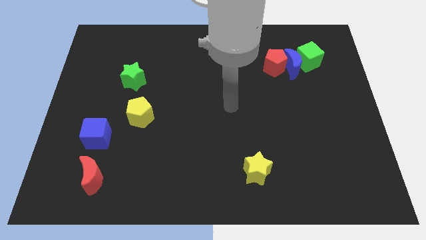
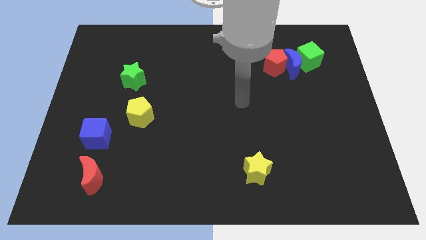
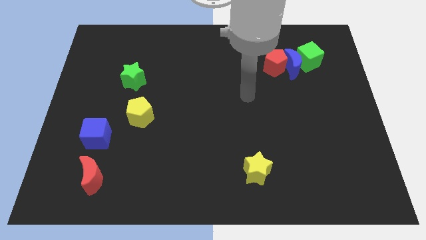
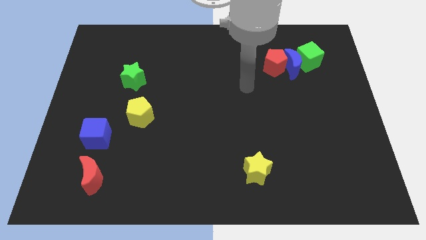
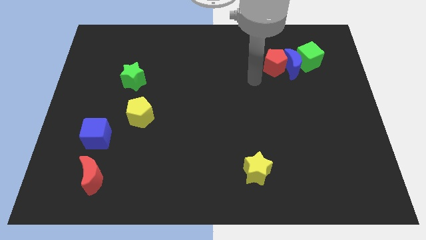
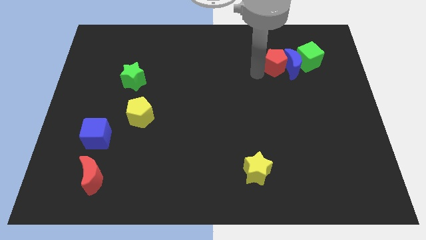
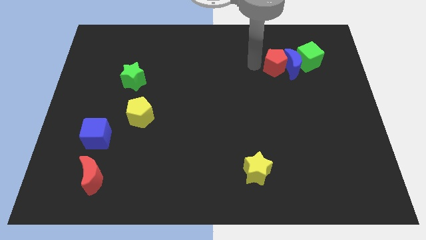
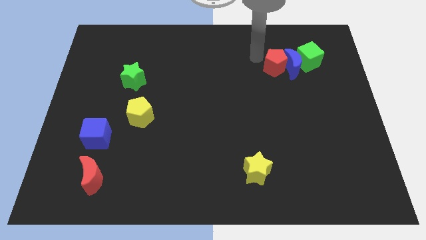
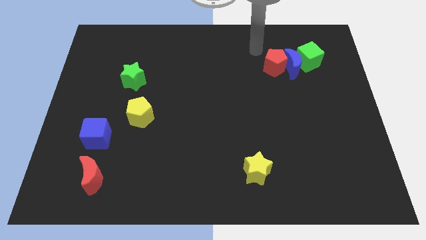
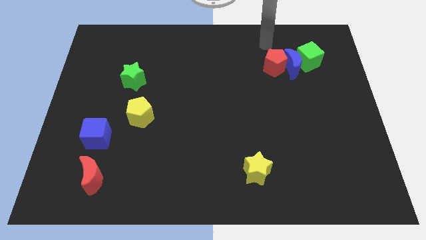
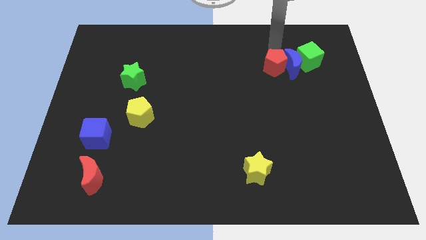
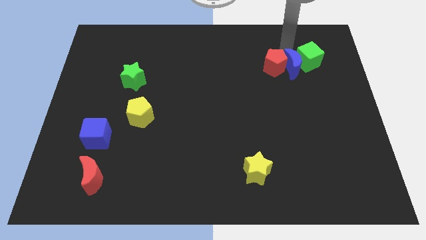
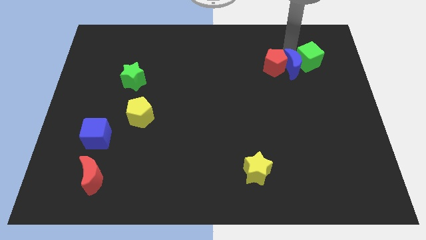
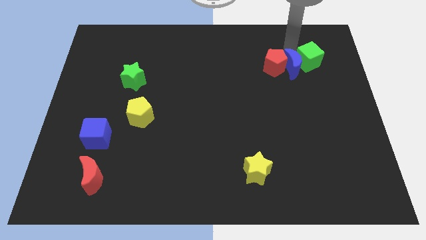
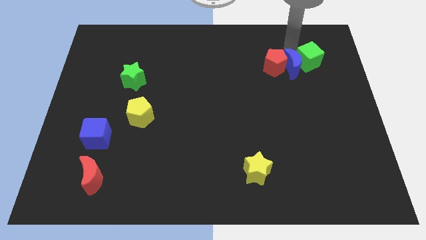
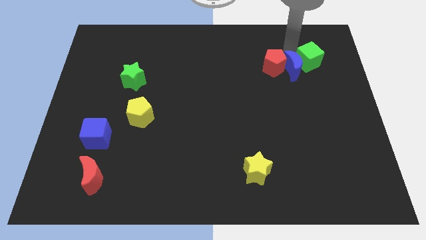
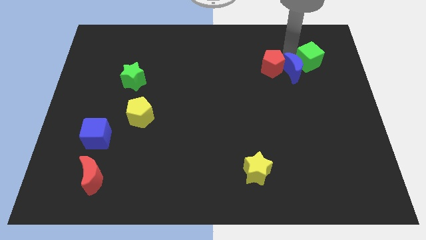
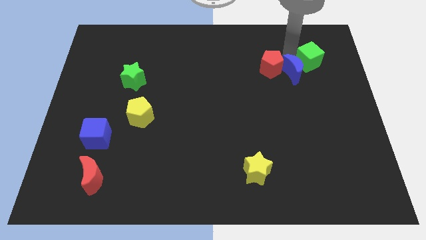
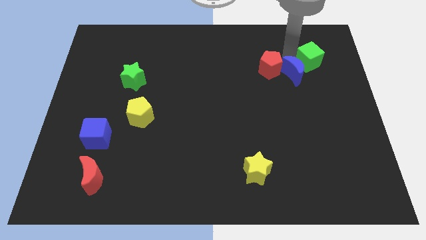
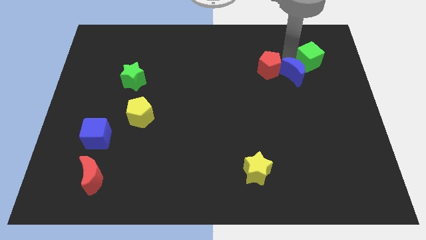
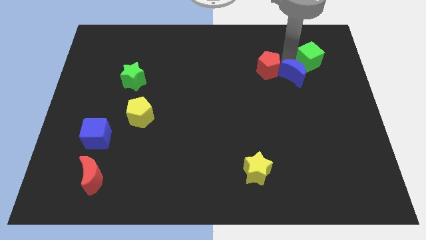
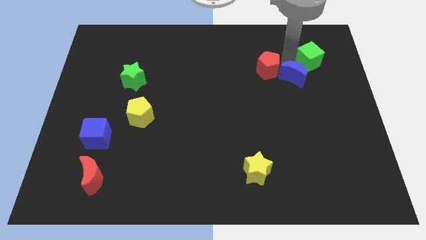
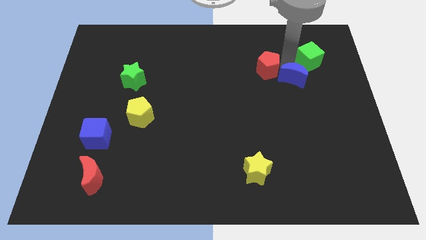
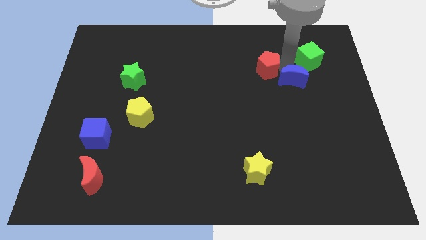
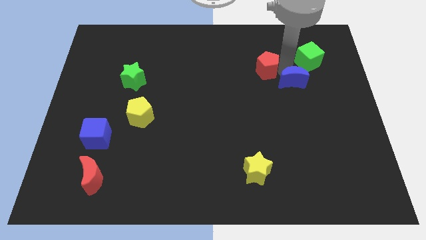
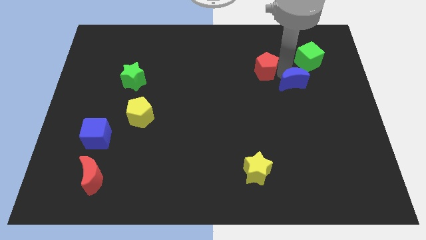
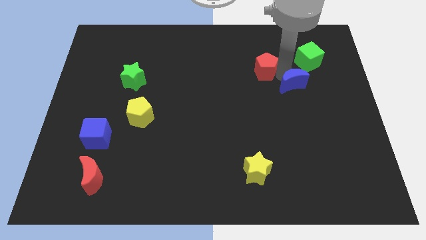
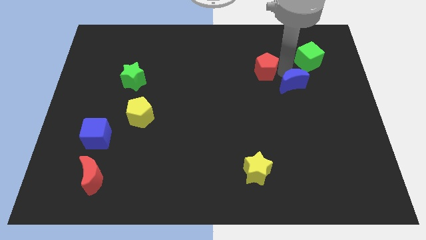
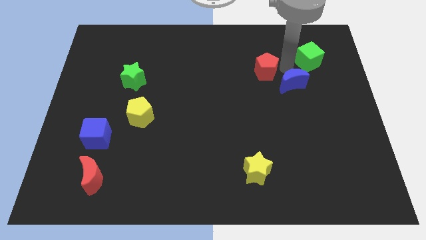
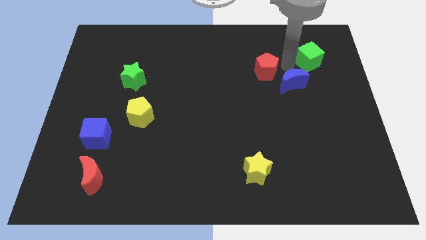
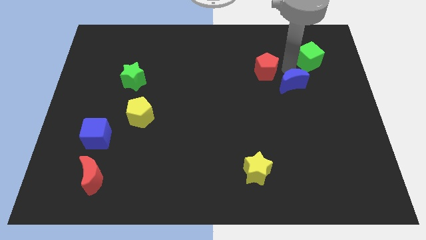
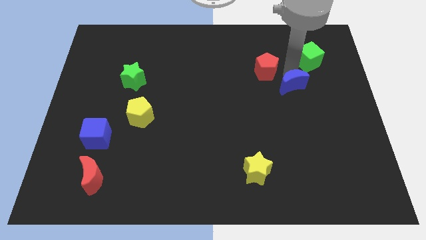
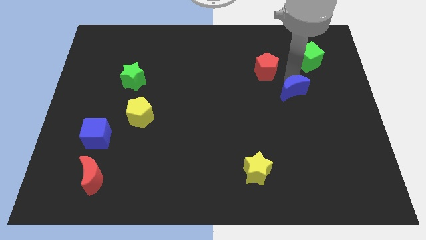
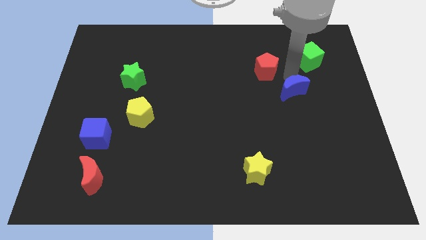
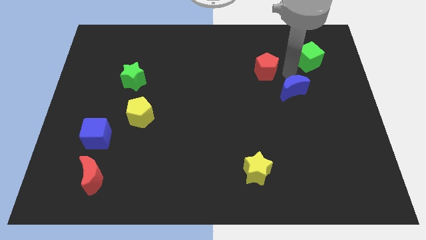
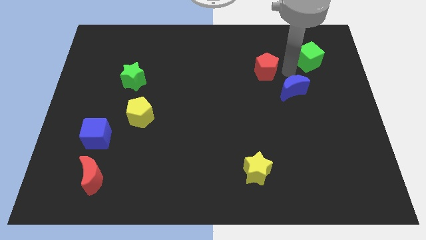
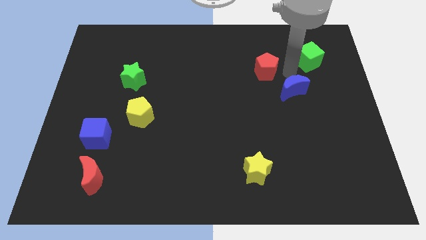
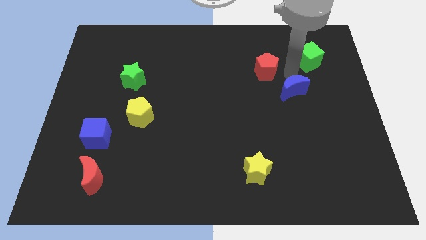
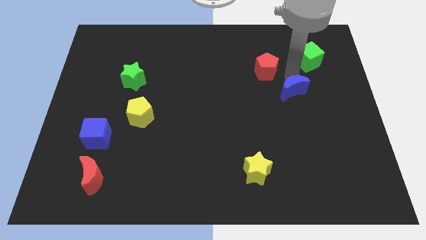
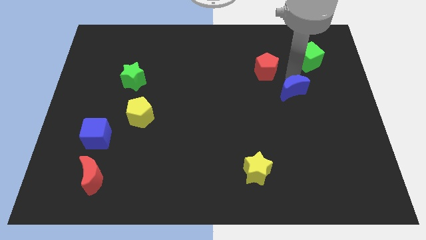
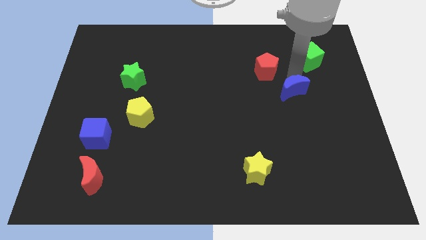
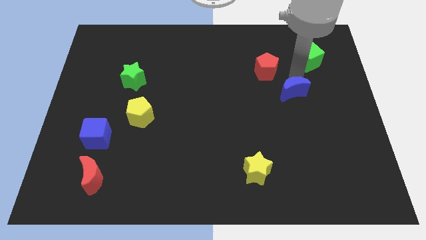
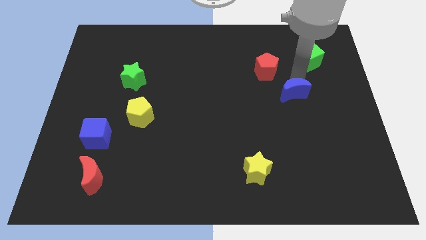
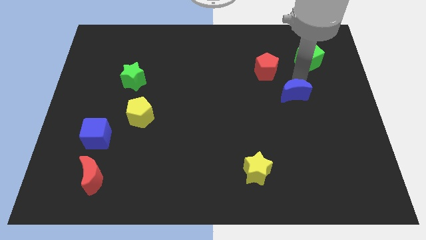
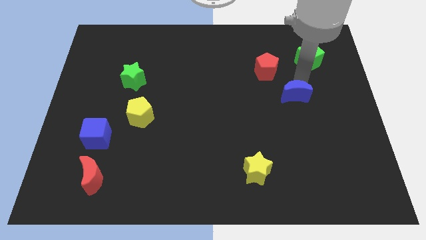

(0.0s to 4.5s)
move the blue moon away from the red pentagon and green cube

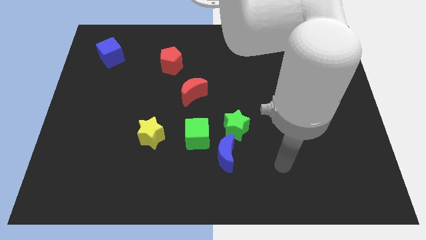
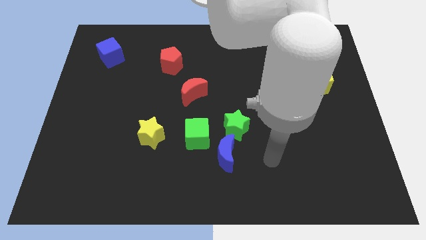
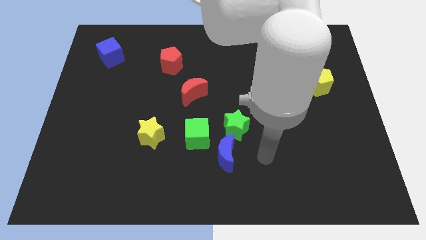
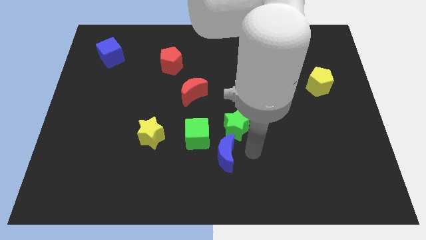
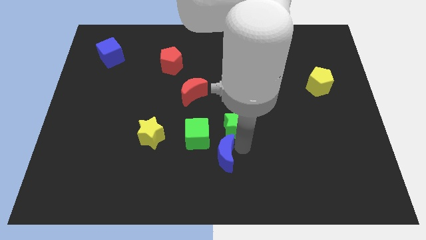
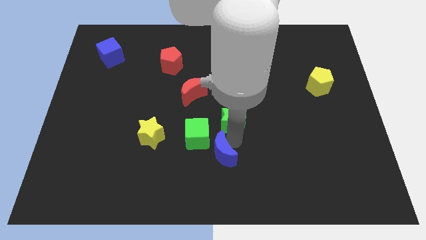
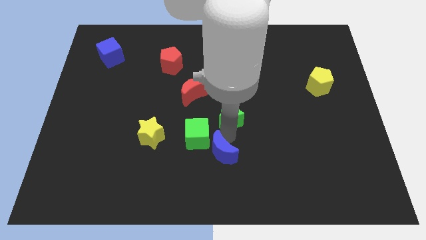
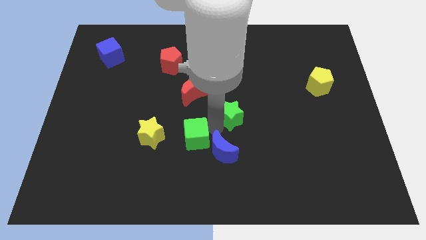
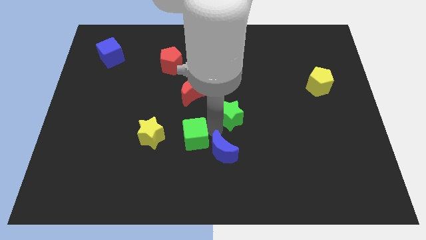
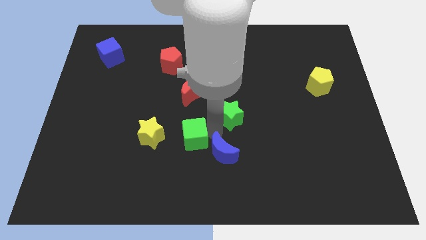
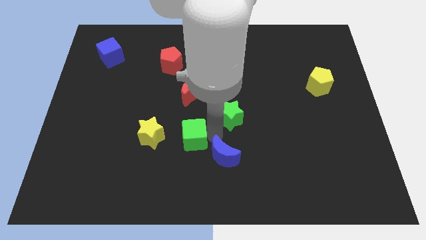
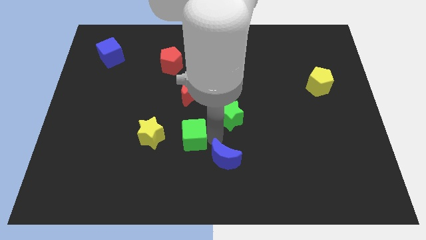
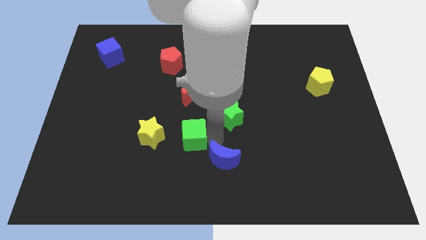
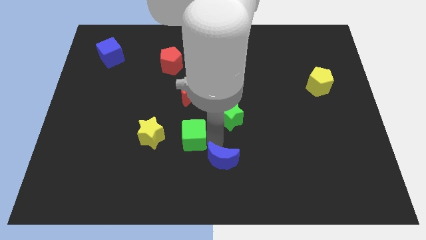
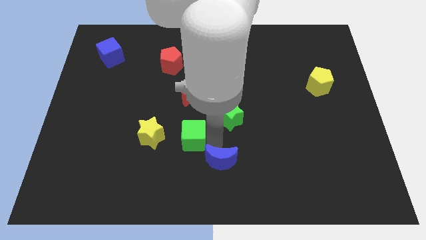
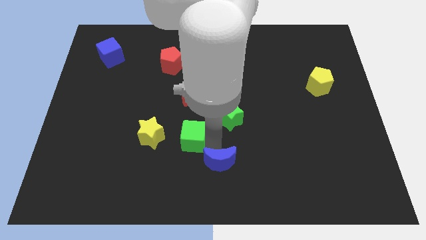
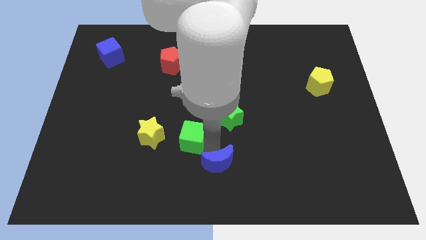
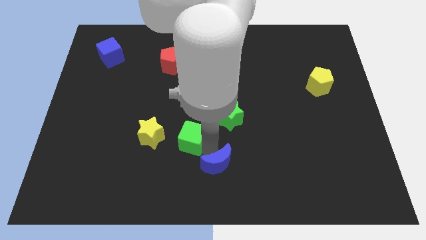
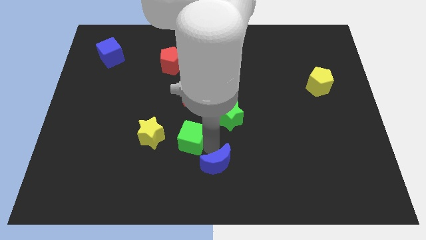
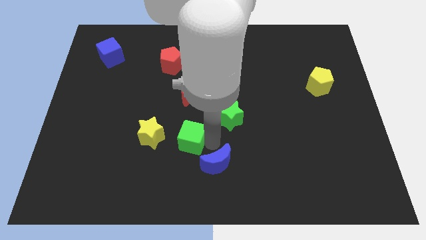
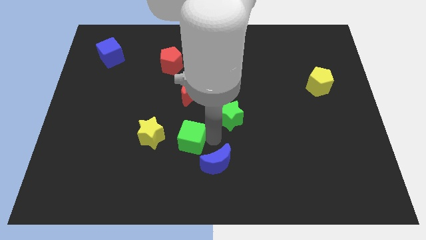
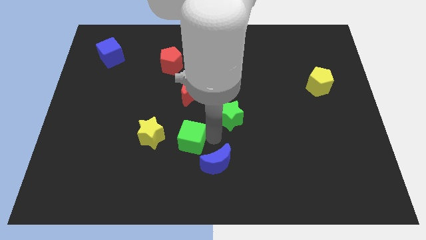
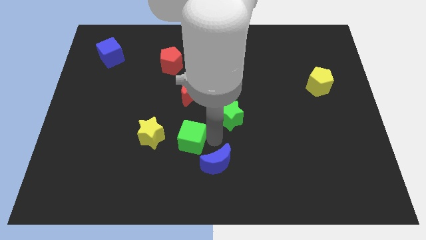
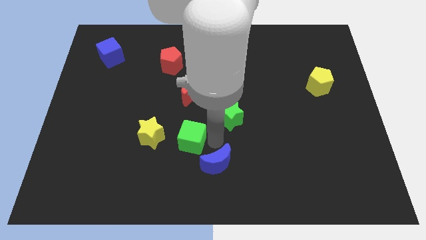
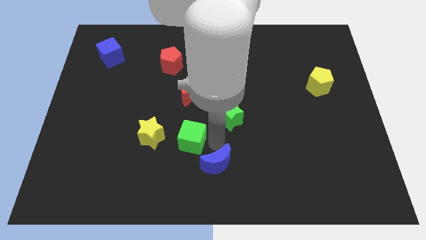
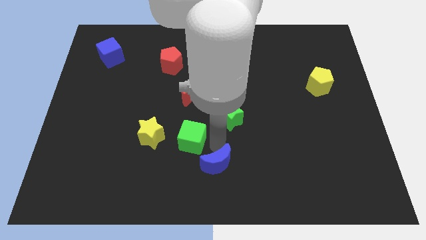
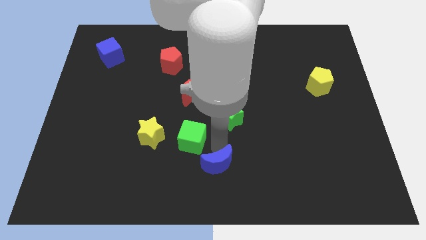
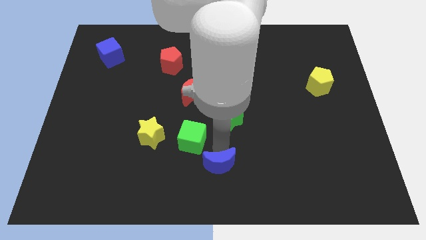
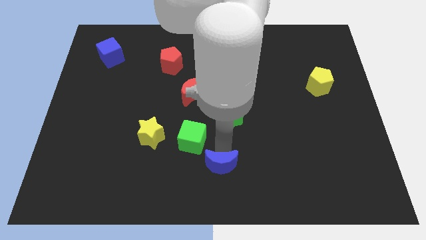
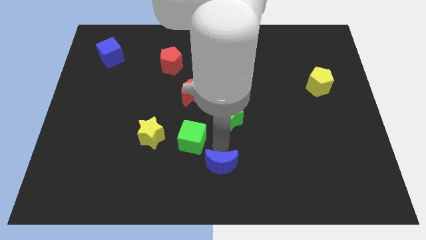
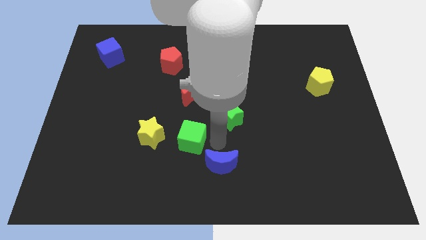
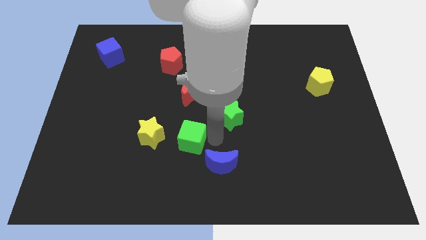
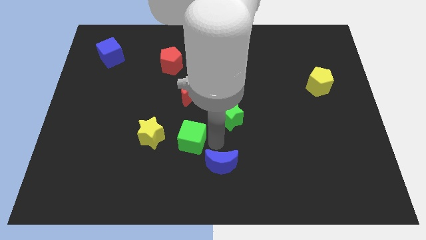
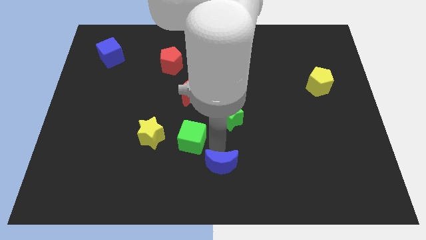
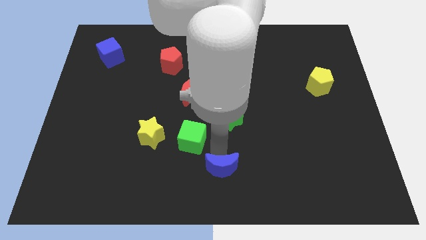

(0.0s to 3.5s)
pull the blue moon apart from the green star and green cube

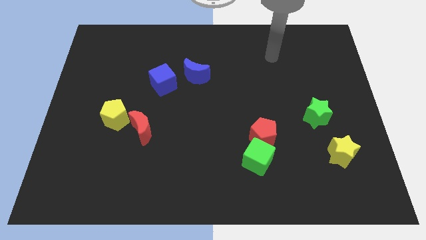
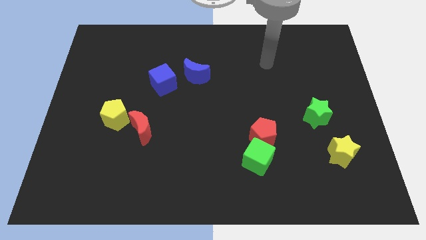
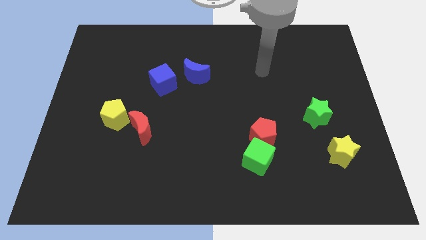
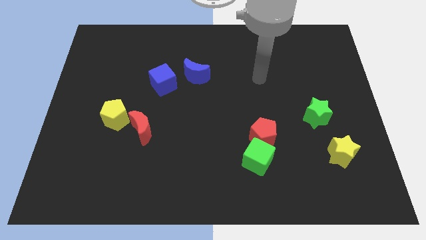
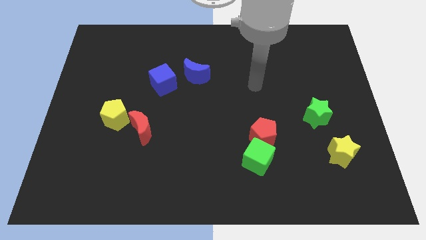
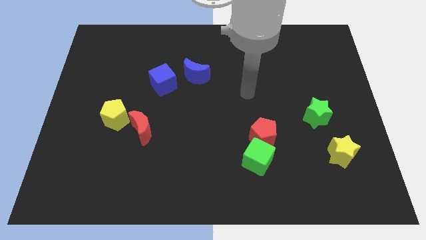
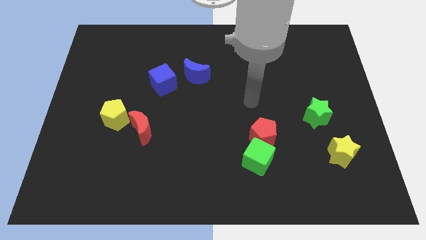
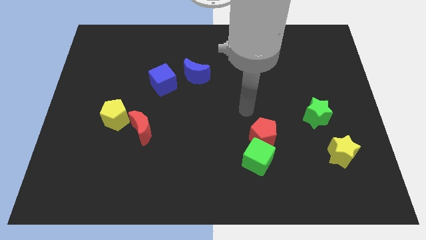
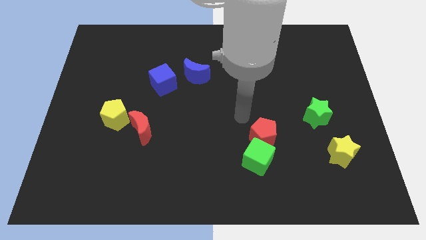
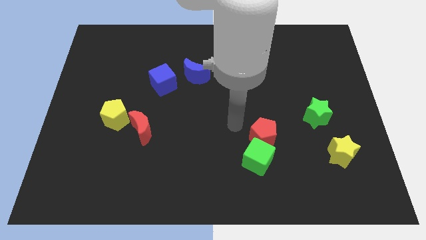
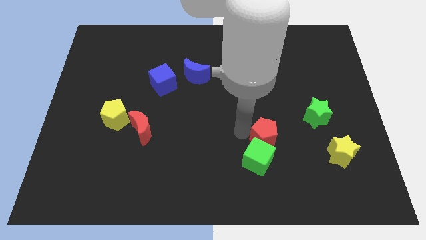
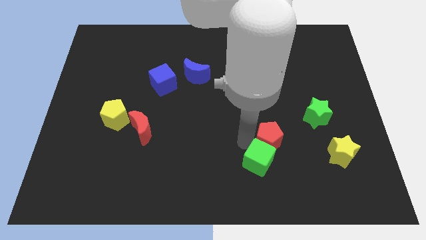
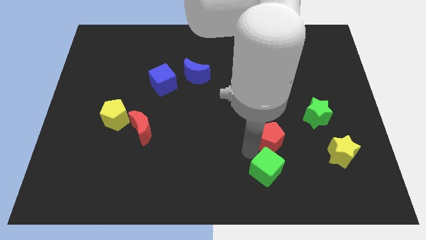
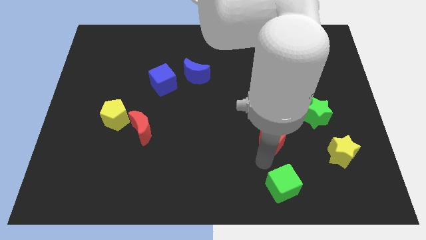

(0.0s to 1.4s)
separate the red pentagon from the green cube
